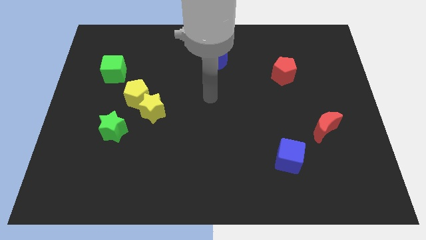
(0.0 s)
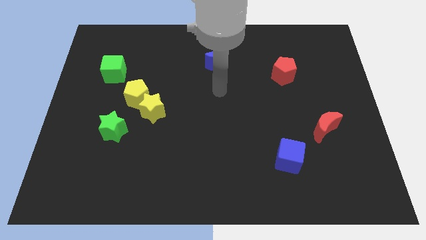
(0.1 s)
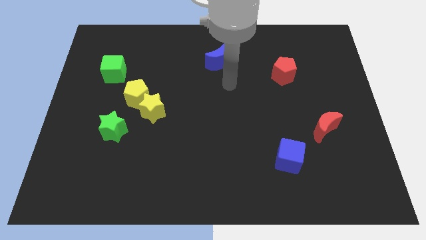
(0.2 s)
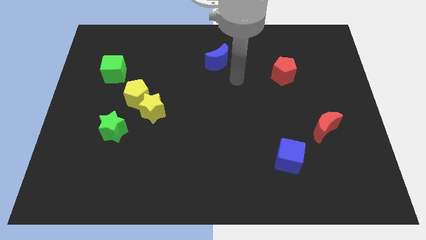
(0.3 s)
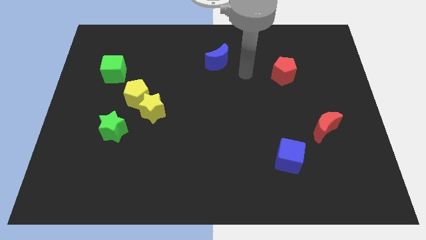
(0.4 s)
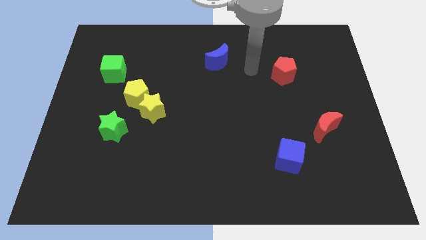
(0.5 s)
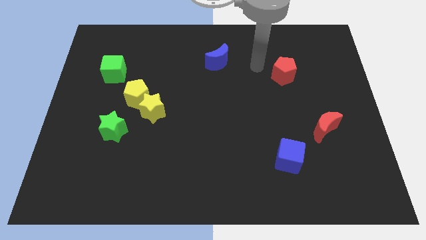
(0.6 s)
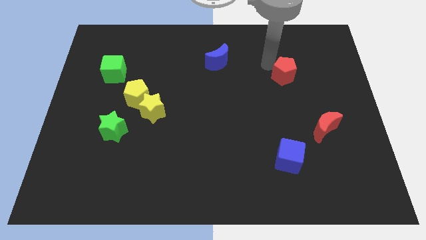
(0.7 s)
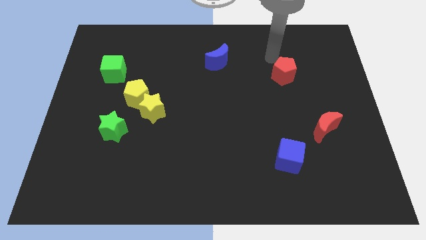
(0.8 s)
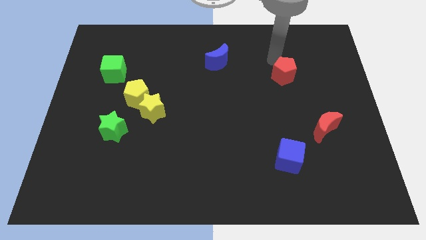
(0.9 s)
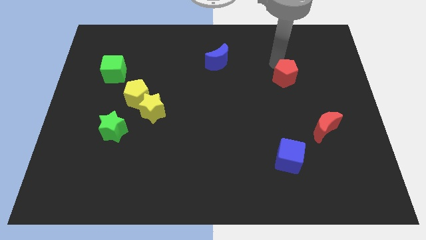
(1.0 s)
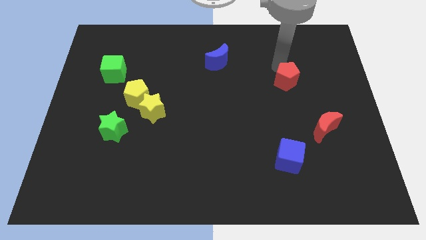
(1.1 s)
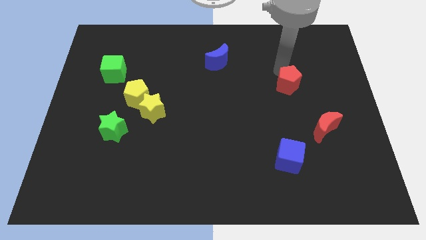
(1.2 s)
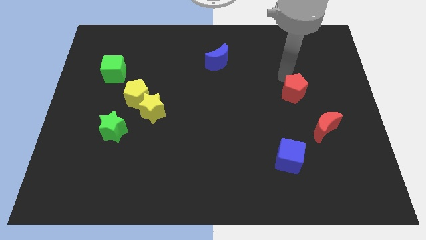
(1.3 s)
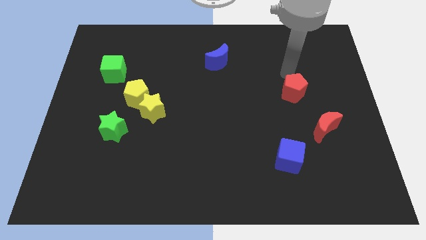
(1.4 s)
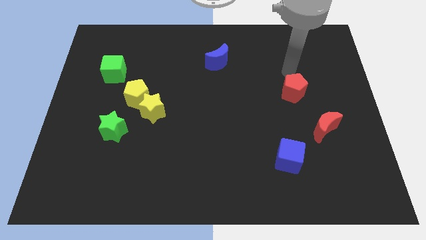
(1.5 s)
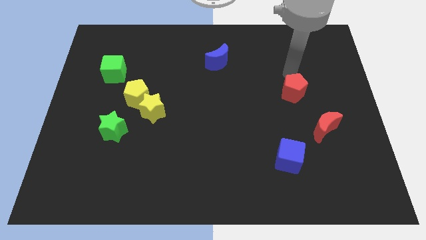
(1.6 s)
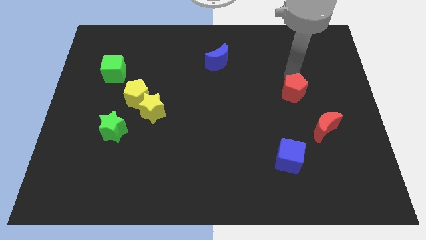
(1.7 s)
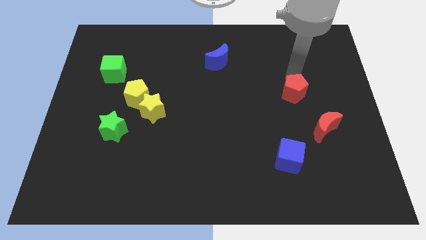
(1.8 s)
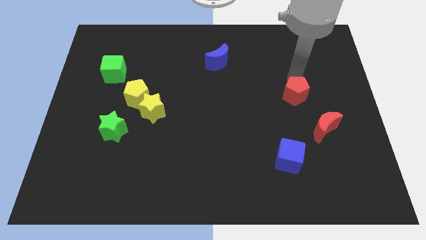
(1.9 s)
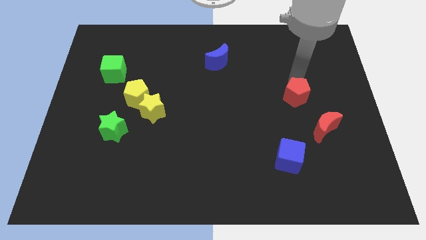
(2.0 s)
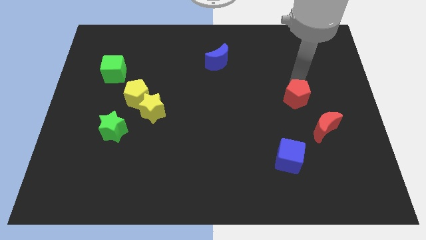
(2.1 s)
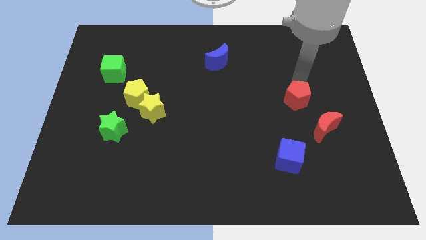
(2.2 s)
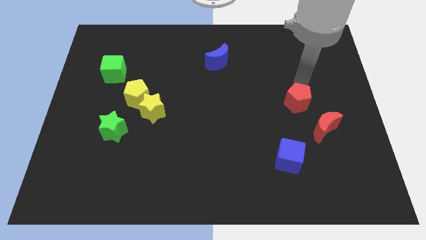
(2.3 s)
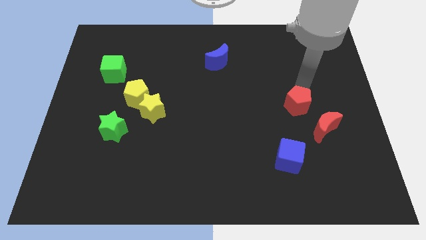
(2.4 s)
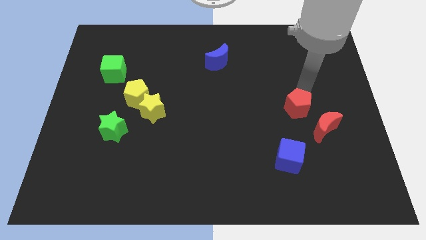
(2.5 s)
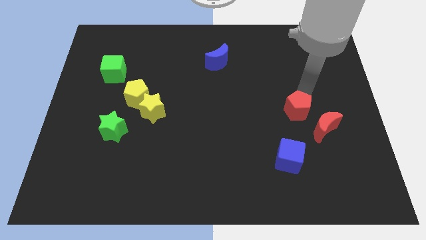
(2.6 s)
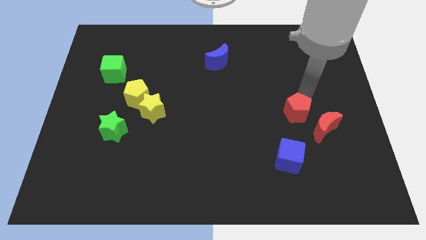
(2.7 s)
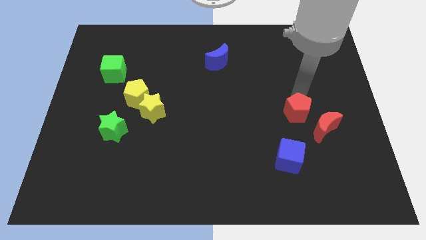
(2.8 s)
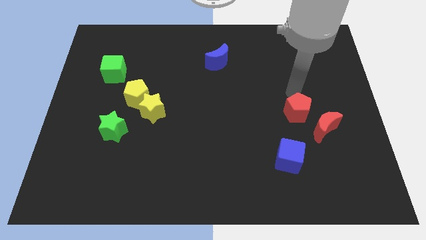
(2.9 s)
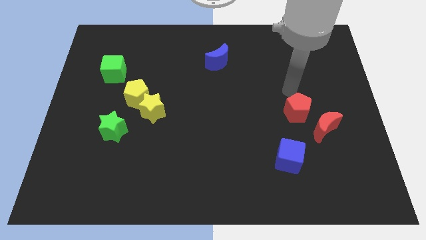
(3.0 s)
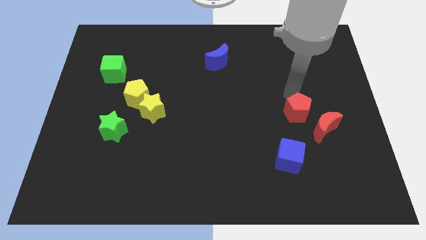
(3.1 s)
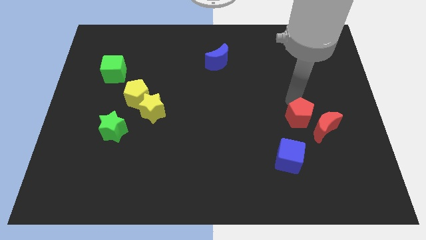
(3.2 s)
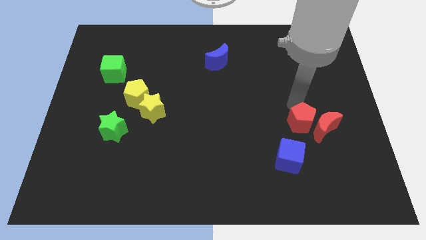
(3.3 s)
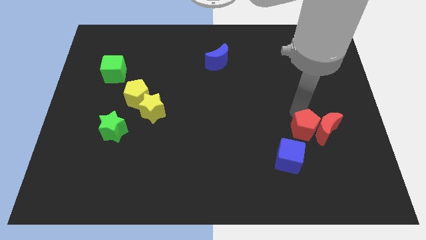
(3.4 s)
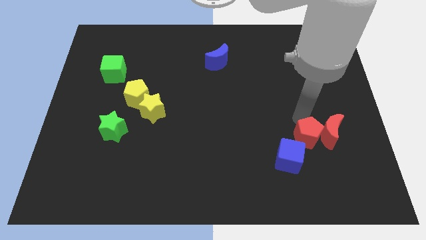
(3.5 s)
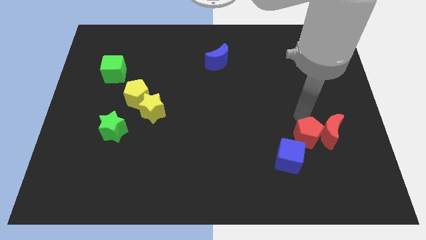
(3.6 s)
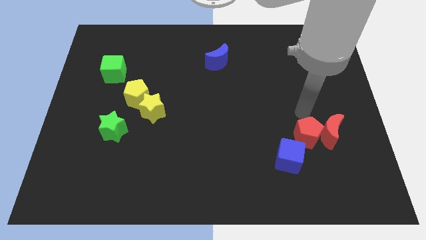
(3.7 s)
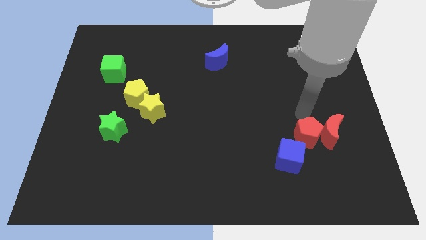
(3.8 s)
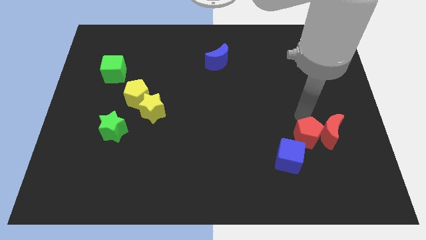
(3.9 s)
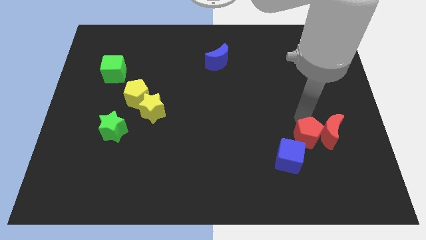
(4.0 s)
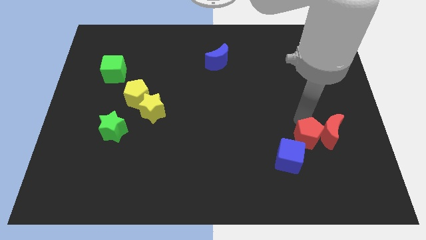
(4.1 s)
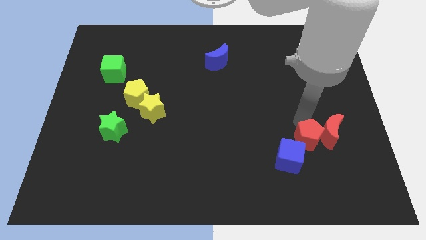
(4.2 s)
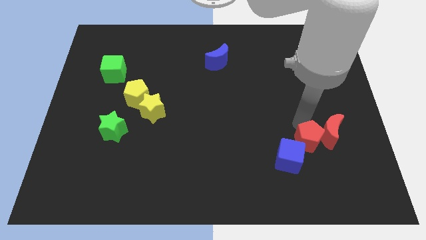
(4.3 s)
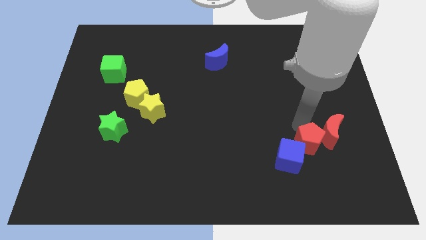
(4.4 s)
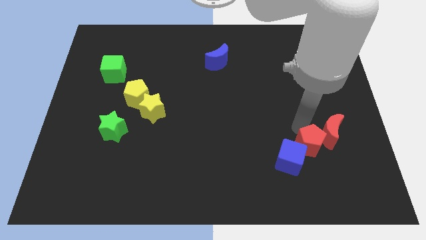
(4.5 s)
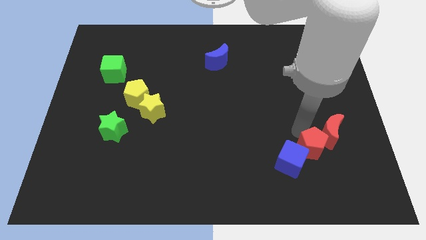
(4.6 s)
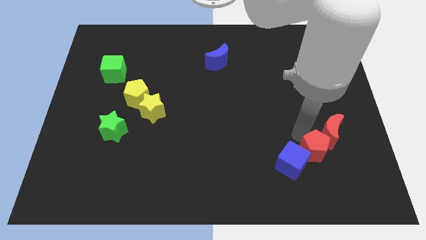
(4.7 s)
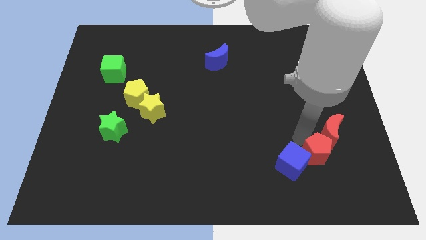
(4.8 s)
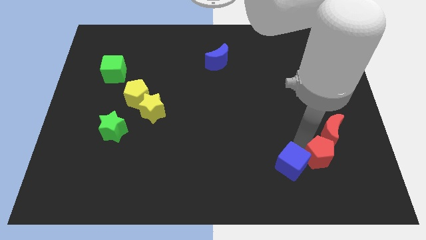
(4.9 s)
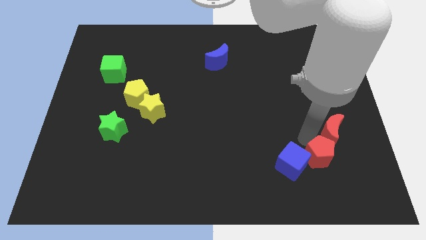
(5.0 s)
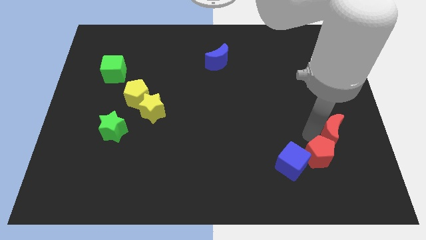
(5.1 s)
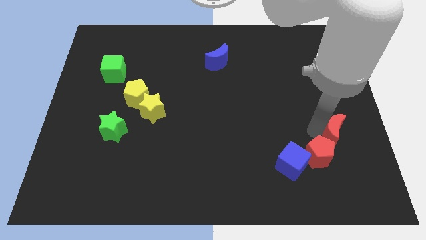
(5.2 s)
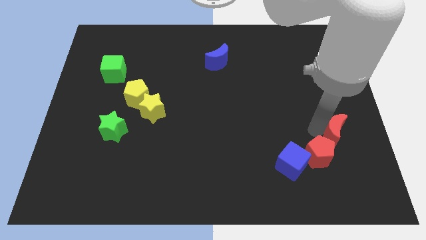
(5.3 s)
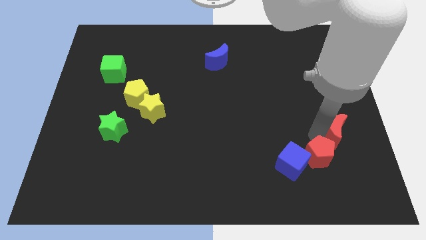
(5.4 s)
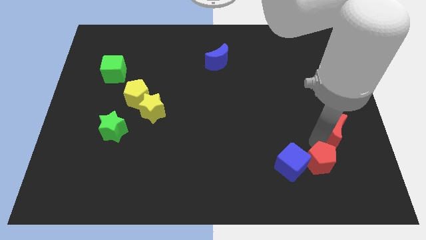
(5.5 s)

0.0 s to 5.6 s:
push the red pentagon to the bottom right side of the blue cube

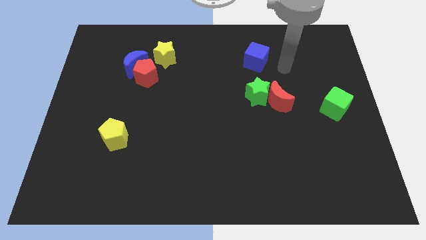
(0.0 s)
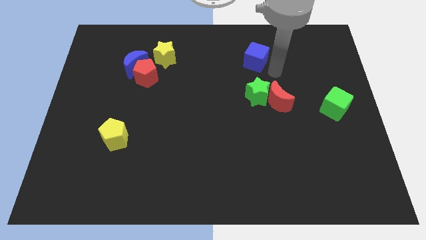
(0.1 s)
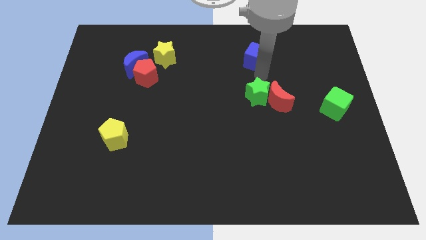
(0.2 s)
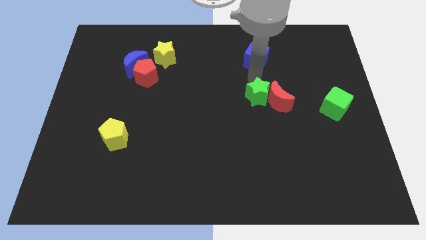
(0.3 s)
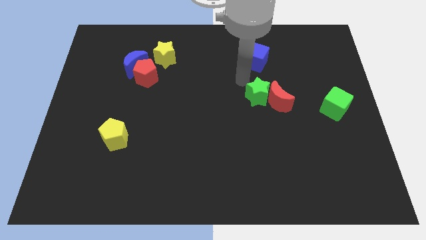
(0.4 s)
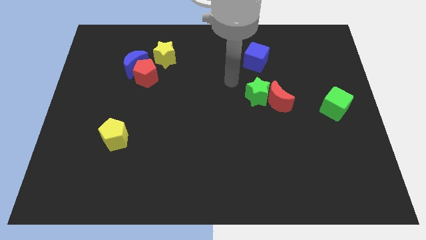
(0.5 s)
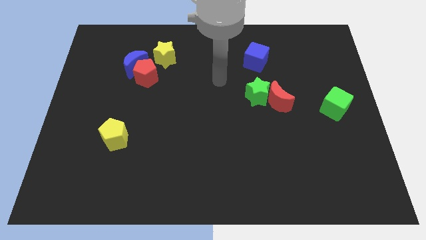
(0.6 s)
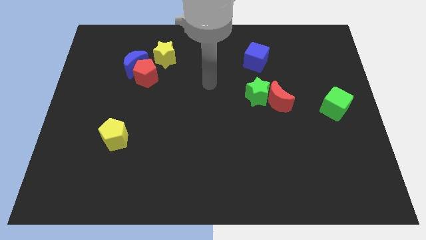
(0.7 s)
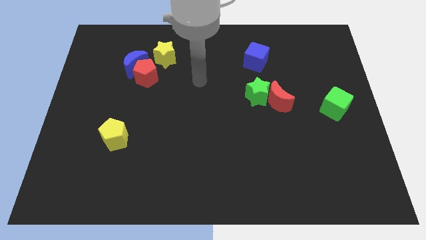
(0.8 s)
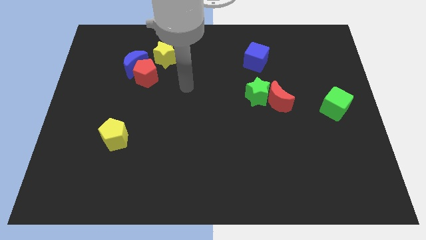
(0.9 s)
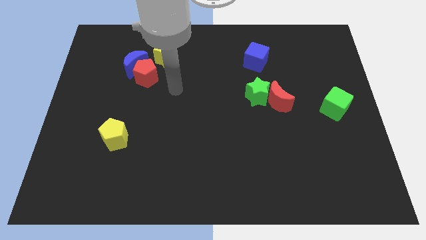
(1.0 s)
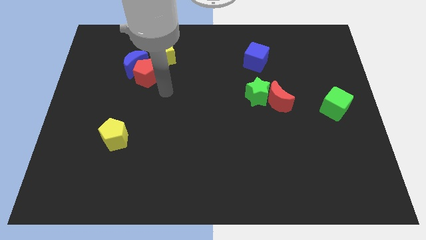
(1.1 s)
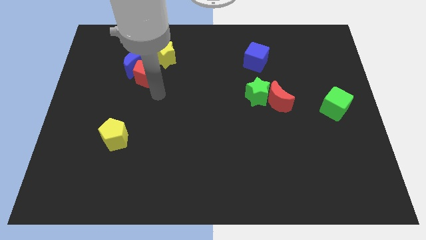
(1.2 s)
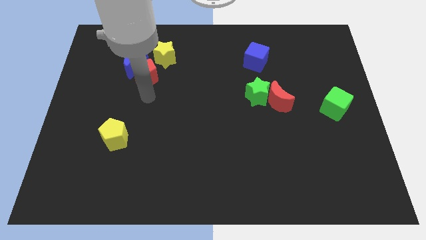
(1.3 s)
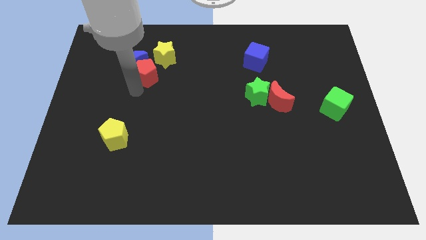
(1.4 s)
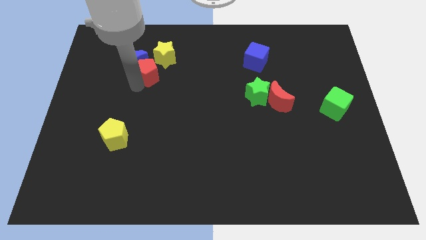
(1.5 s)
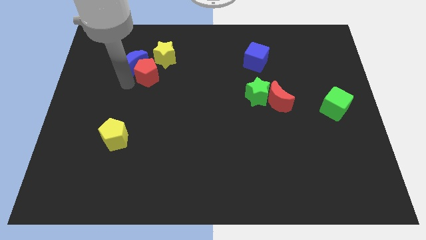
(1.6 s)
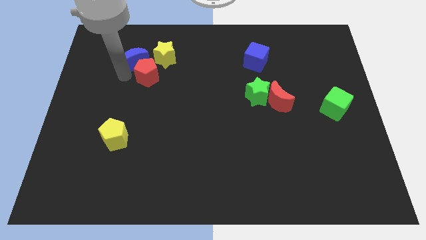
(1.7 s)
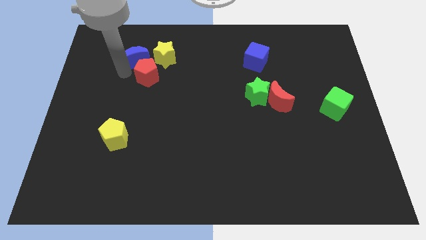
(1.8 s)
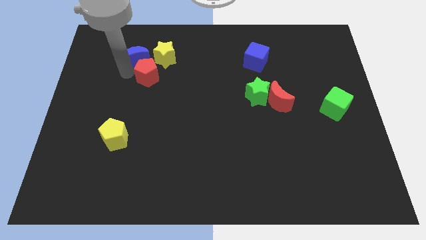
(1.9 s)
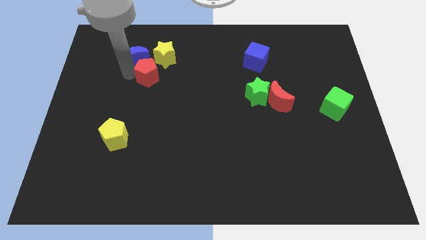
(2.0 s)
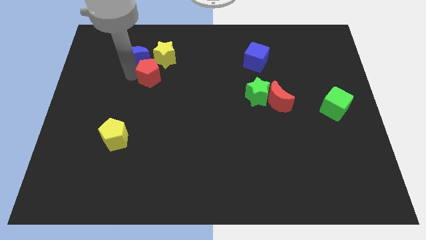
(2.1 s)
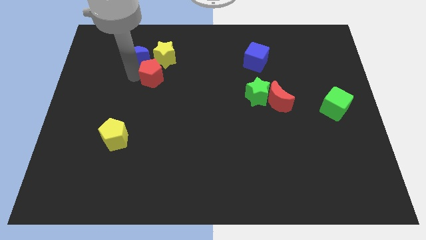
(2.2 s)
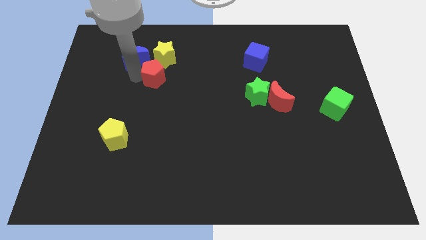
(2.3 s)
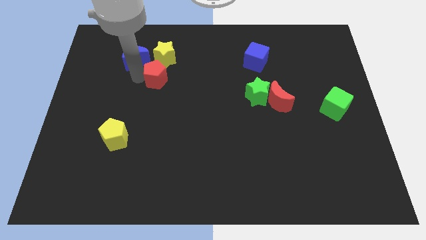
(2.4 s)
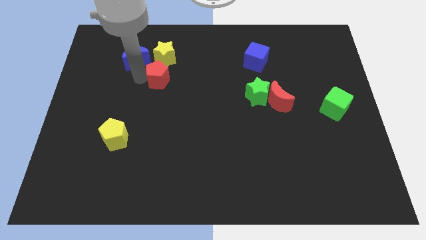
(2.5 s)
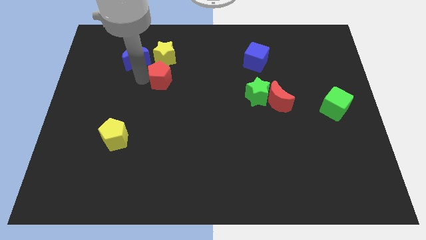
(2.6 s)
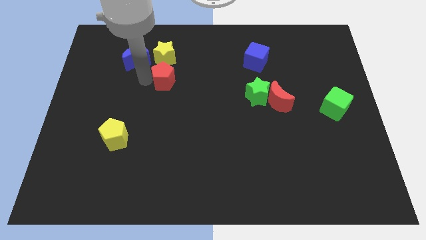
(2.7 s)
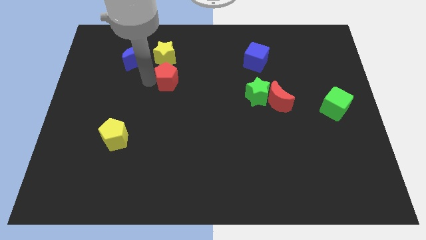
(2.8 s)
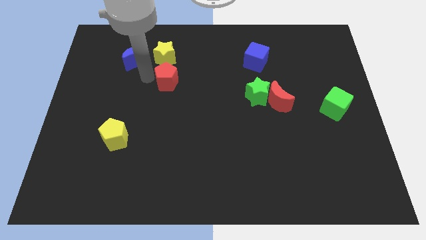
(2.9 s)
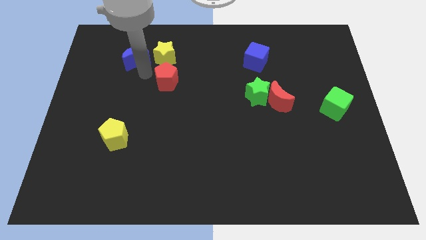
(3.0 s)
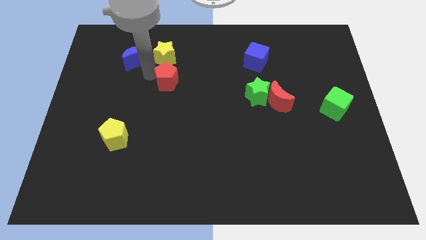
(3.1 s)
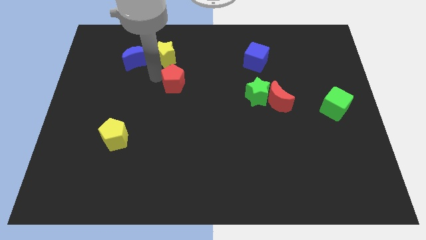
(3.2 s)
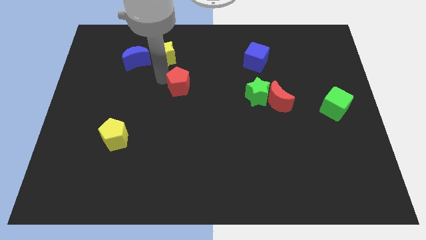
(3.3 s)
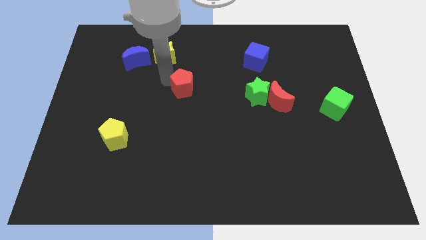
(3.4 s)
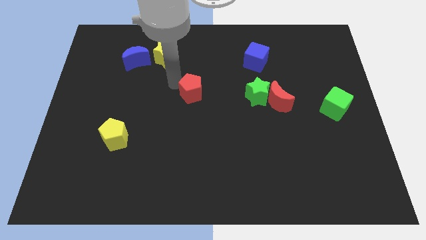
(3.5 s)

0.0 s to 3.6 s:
slide the red pentagon left of the green star
